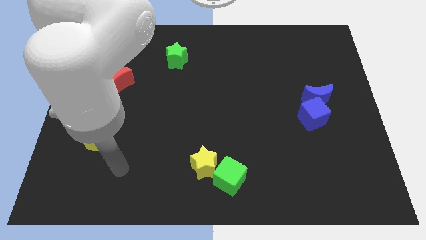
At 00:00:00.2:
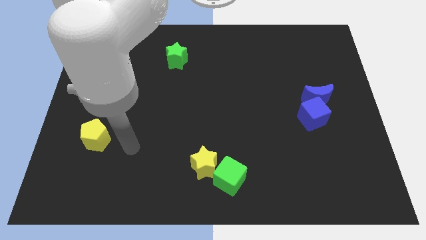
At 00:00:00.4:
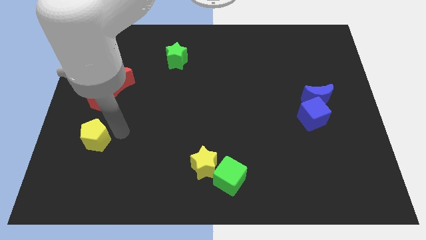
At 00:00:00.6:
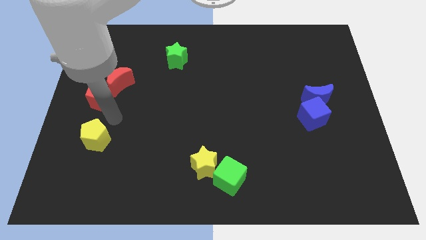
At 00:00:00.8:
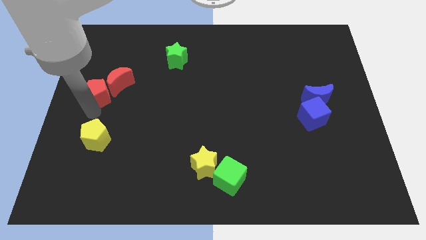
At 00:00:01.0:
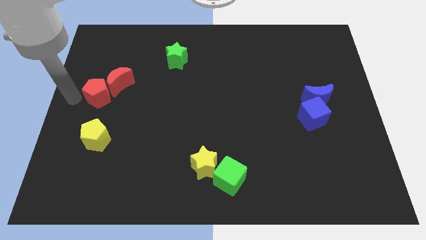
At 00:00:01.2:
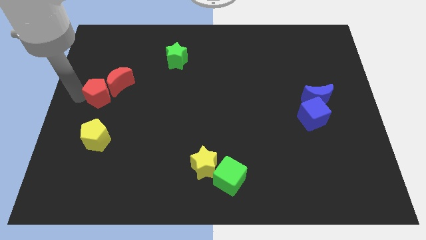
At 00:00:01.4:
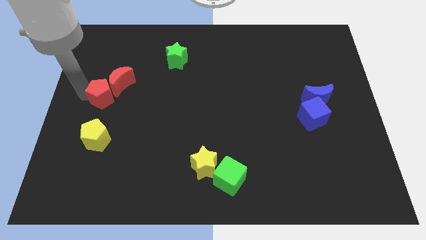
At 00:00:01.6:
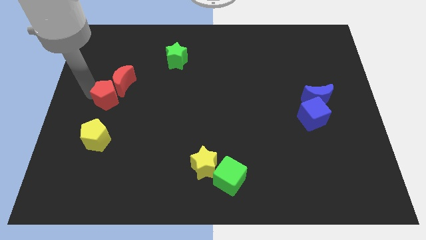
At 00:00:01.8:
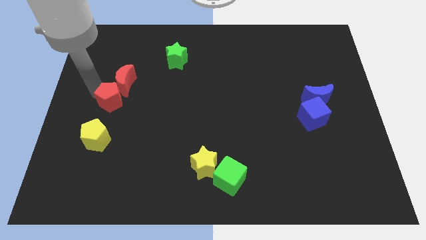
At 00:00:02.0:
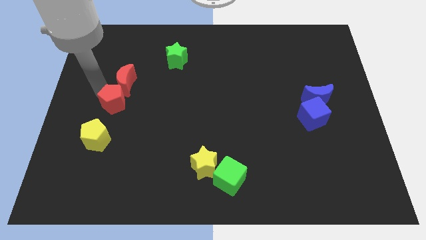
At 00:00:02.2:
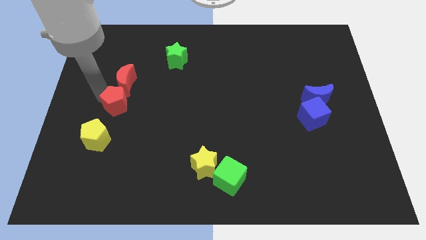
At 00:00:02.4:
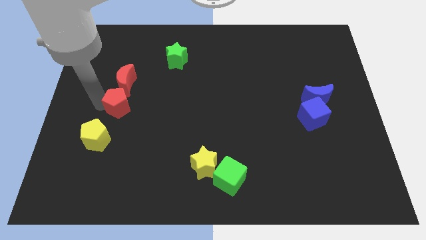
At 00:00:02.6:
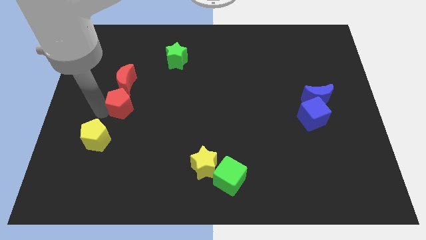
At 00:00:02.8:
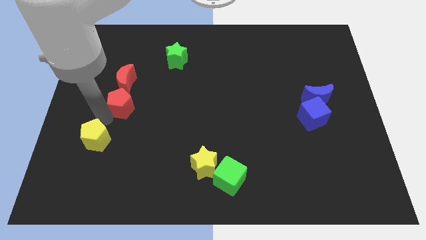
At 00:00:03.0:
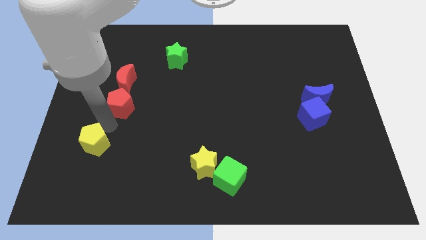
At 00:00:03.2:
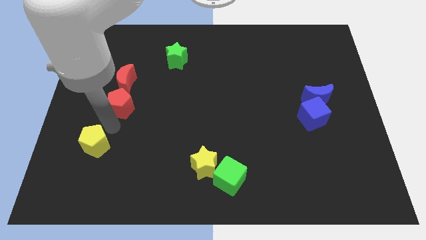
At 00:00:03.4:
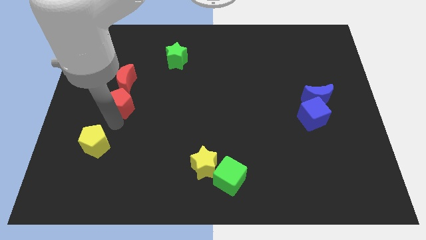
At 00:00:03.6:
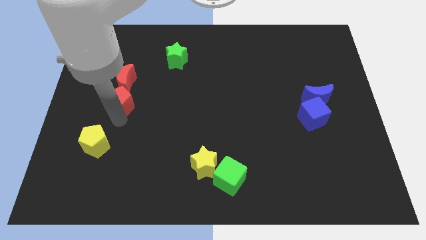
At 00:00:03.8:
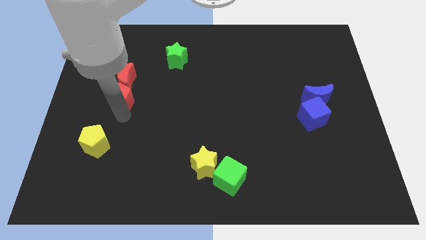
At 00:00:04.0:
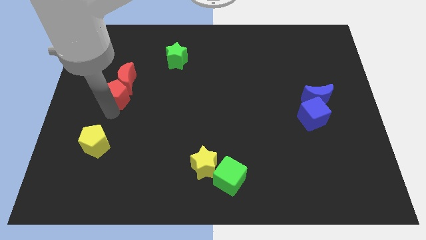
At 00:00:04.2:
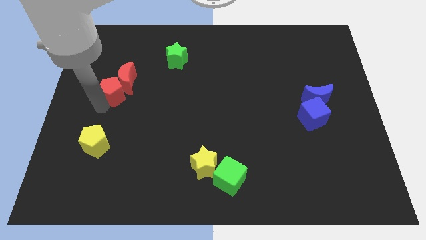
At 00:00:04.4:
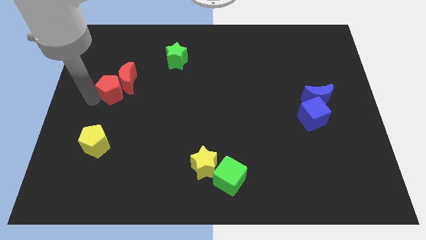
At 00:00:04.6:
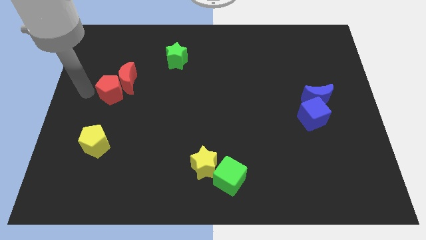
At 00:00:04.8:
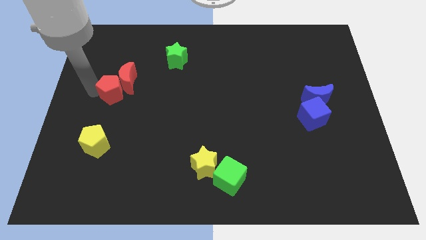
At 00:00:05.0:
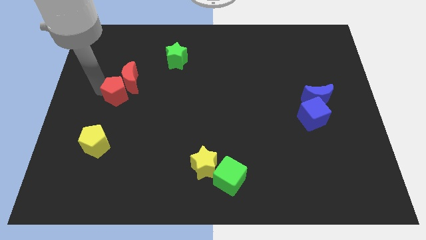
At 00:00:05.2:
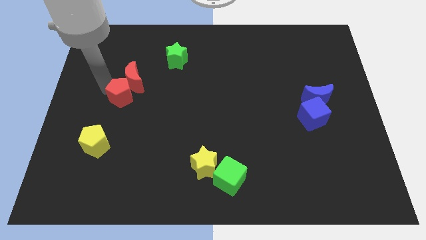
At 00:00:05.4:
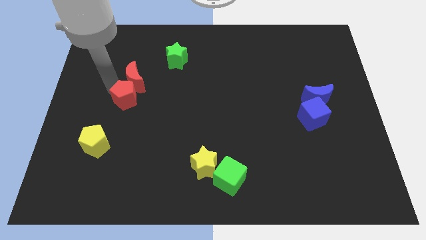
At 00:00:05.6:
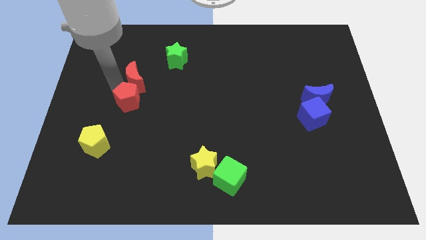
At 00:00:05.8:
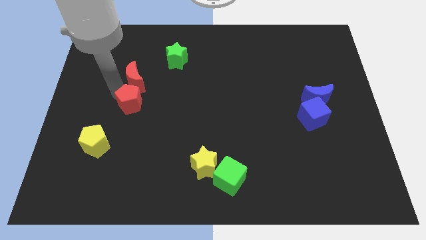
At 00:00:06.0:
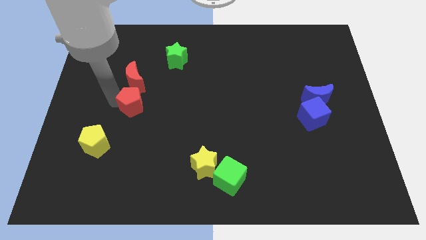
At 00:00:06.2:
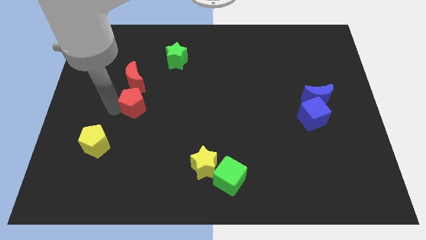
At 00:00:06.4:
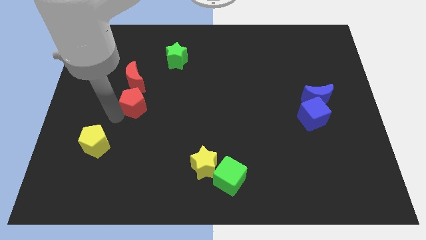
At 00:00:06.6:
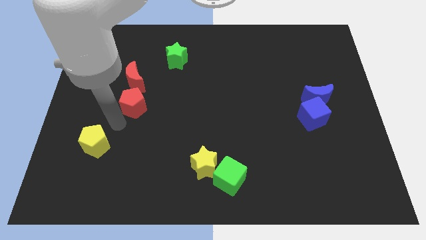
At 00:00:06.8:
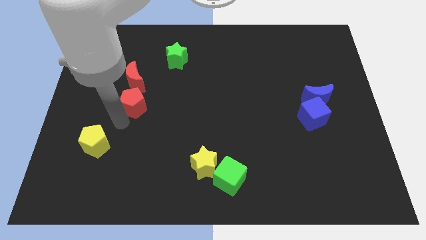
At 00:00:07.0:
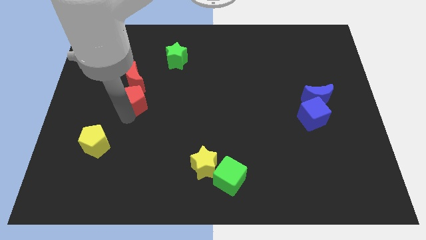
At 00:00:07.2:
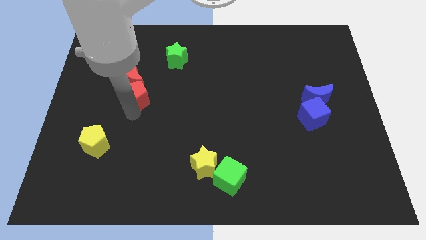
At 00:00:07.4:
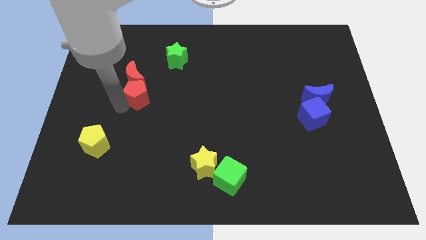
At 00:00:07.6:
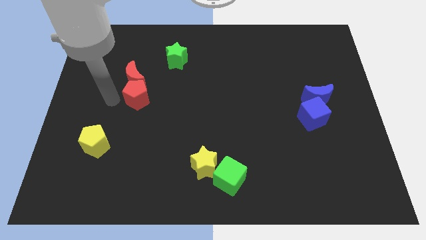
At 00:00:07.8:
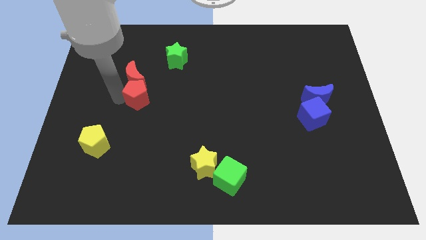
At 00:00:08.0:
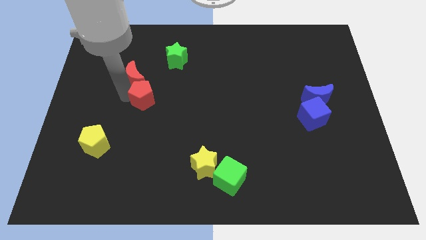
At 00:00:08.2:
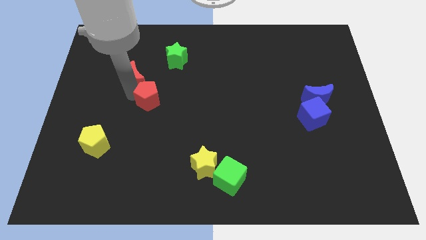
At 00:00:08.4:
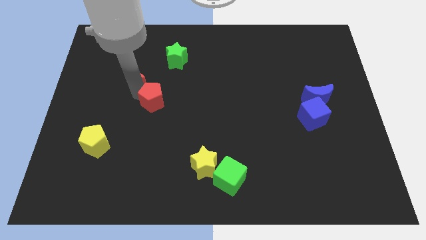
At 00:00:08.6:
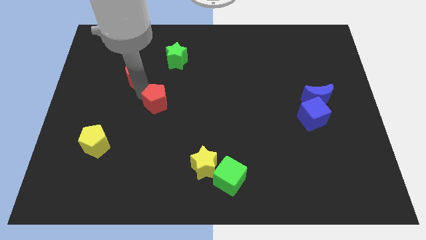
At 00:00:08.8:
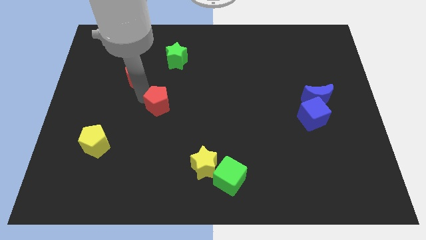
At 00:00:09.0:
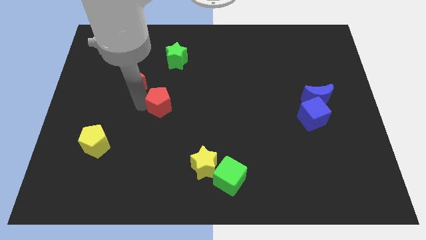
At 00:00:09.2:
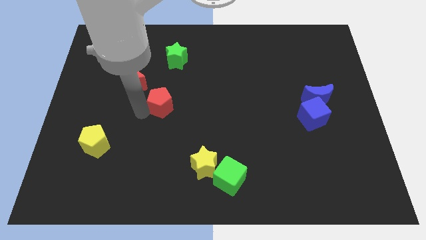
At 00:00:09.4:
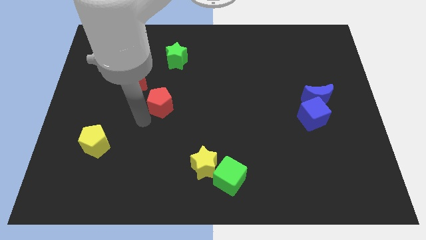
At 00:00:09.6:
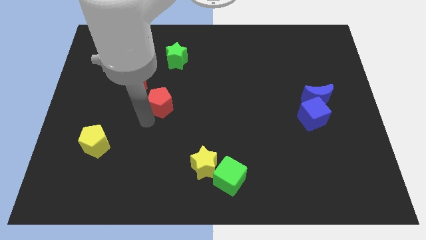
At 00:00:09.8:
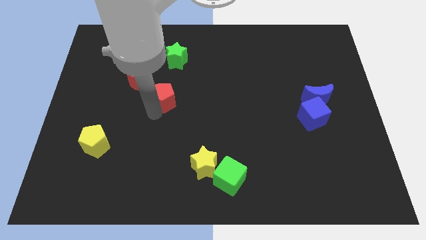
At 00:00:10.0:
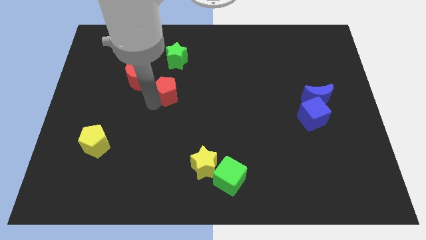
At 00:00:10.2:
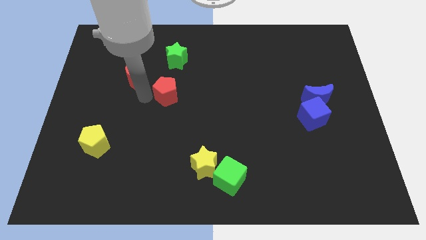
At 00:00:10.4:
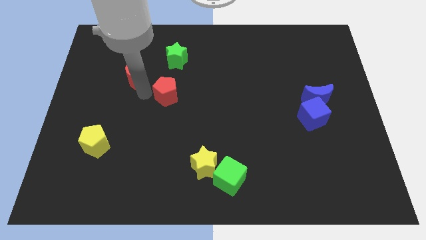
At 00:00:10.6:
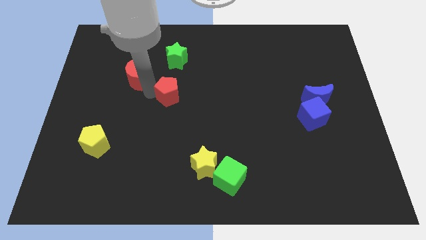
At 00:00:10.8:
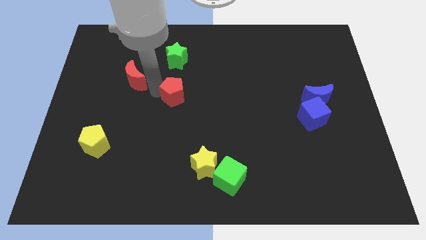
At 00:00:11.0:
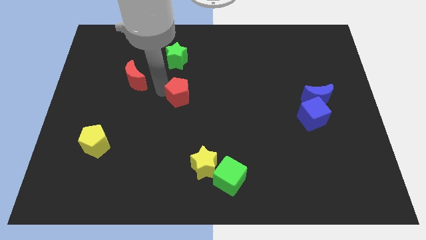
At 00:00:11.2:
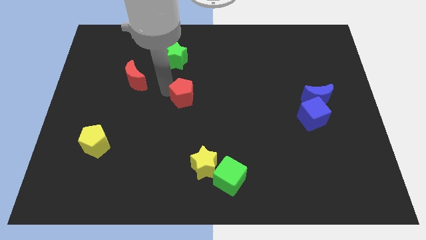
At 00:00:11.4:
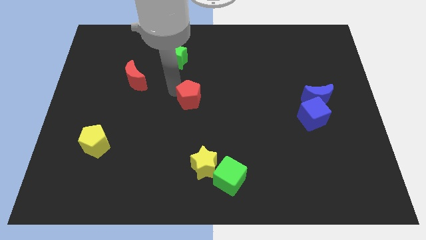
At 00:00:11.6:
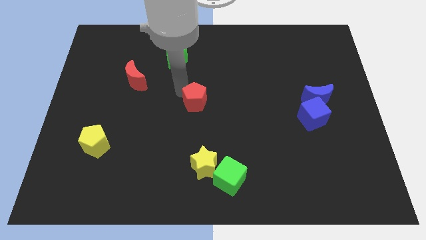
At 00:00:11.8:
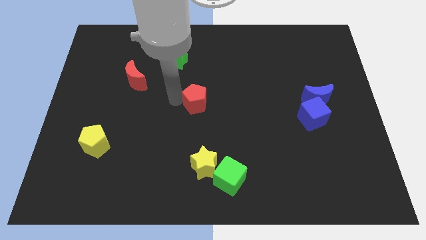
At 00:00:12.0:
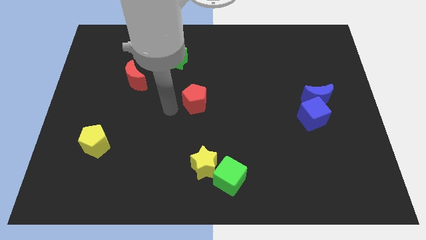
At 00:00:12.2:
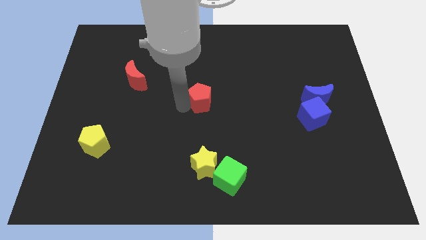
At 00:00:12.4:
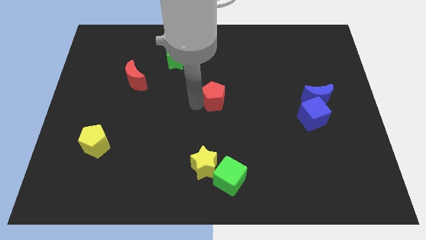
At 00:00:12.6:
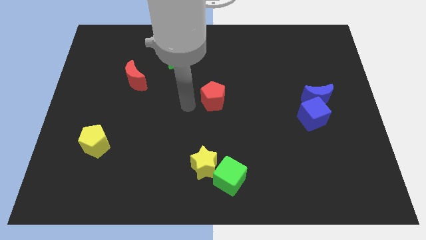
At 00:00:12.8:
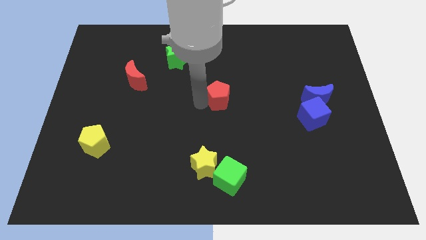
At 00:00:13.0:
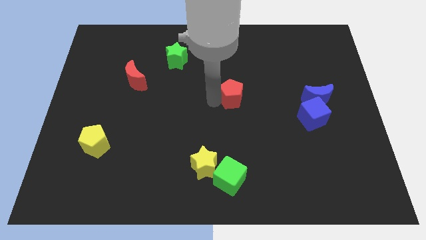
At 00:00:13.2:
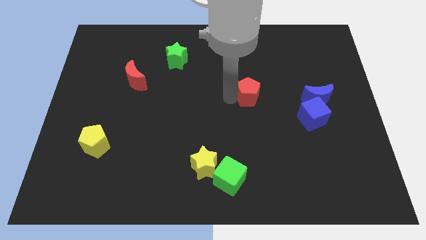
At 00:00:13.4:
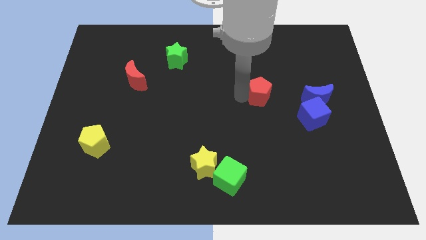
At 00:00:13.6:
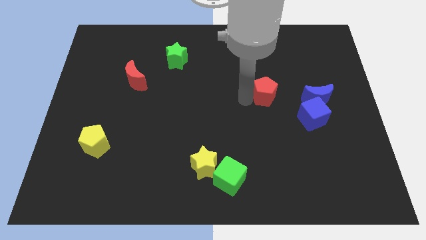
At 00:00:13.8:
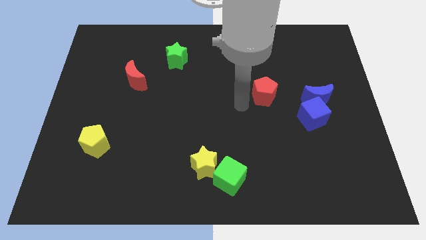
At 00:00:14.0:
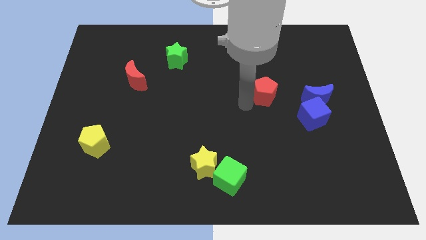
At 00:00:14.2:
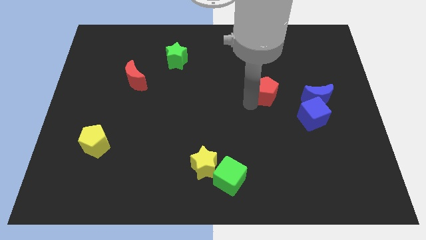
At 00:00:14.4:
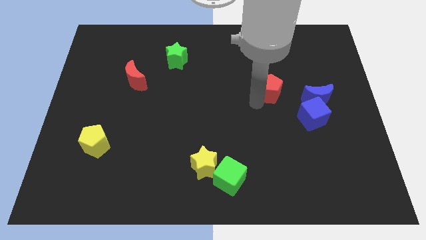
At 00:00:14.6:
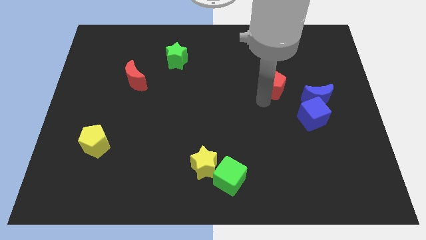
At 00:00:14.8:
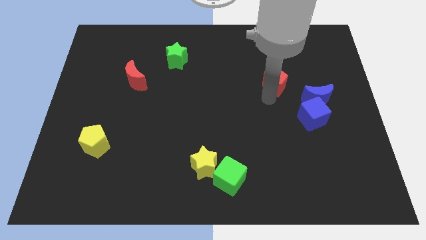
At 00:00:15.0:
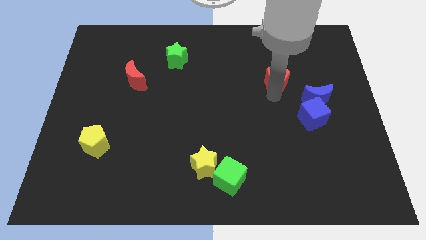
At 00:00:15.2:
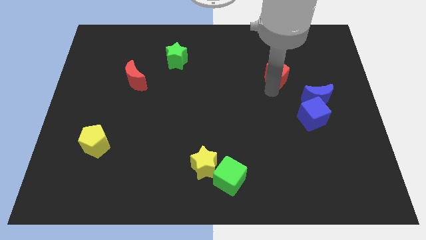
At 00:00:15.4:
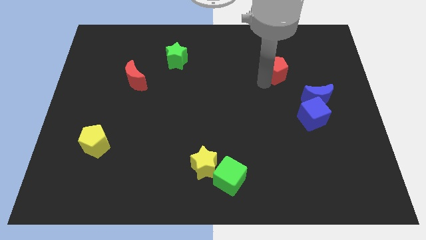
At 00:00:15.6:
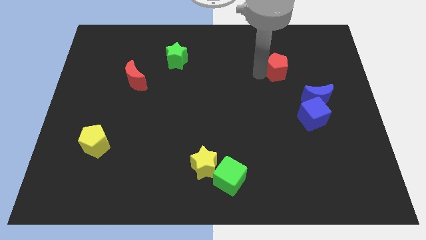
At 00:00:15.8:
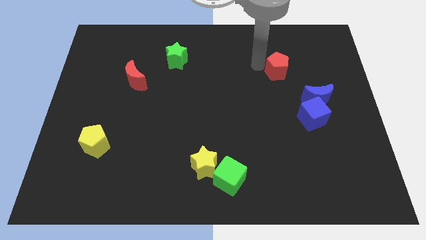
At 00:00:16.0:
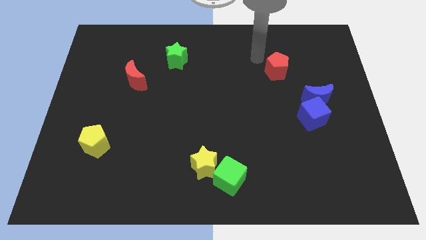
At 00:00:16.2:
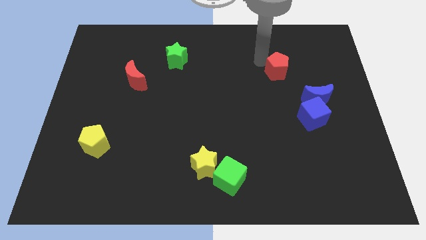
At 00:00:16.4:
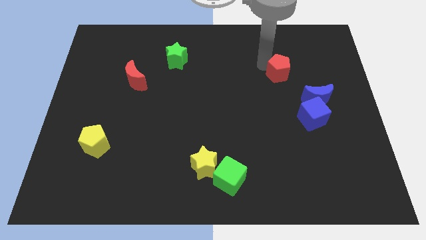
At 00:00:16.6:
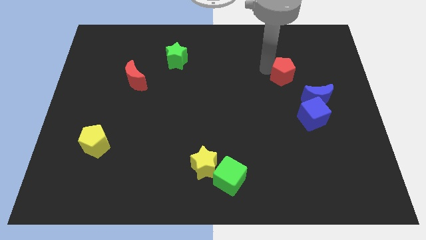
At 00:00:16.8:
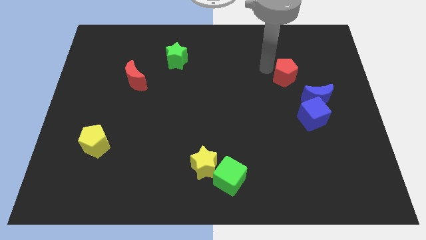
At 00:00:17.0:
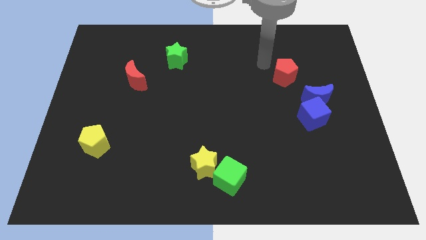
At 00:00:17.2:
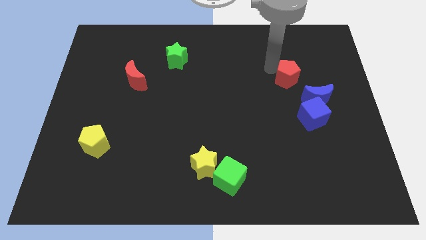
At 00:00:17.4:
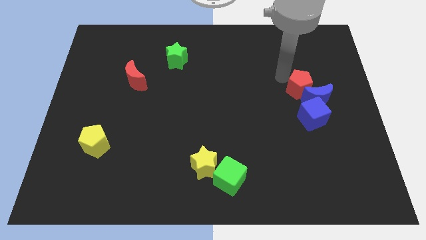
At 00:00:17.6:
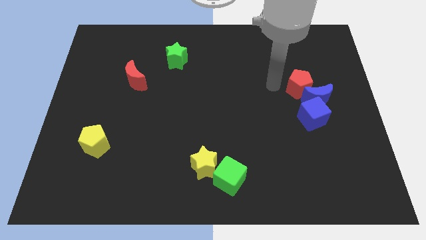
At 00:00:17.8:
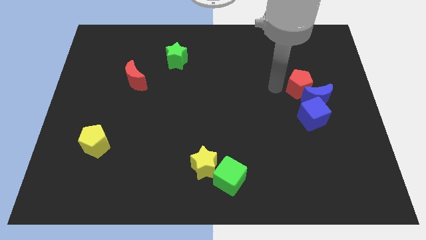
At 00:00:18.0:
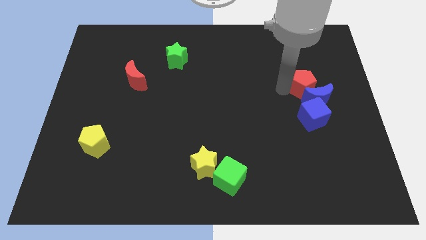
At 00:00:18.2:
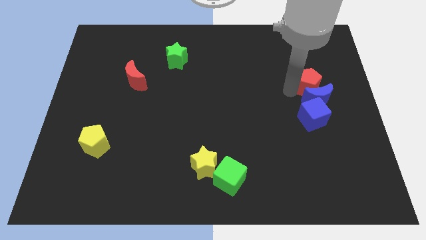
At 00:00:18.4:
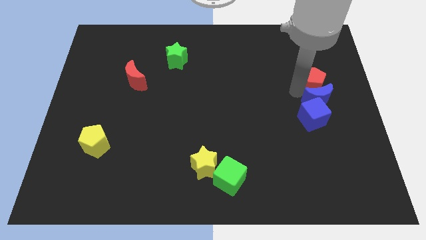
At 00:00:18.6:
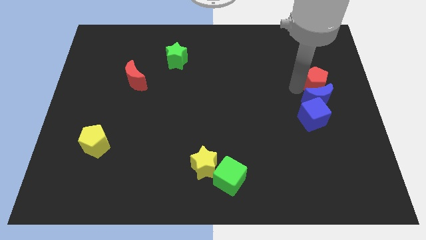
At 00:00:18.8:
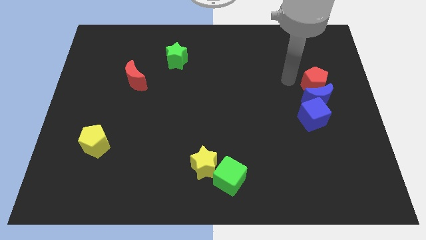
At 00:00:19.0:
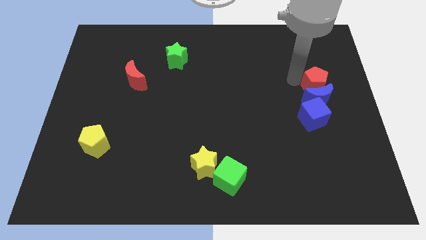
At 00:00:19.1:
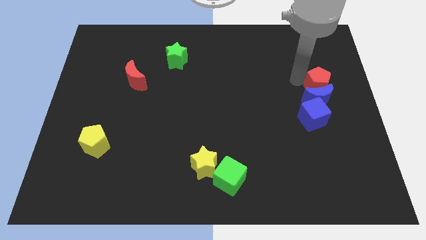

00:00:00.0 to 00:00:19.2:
move the red pentagon to the center right
